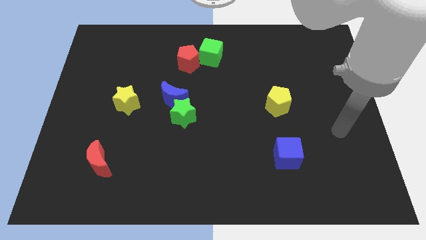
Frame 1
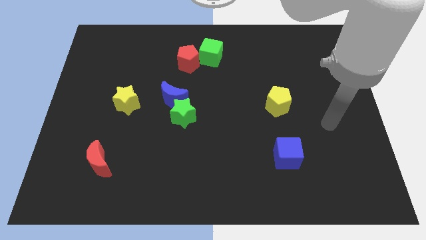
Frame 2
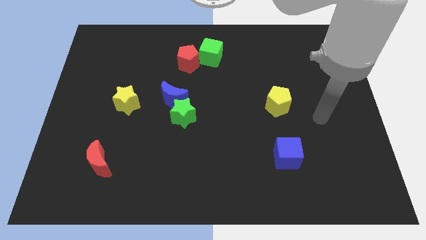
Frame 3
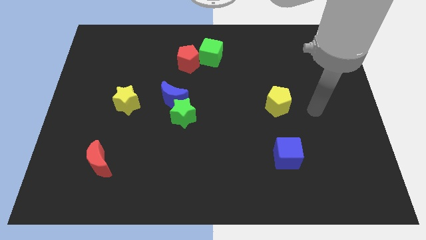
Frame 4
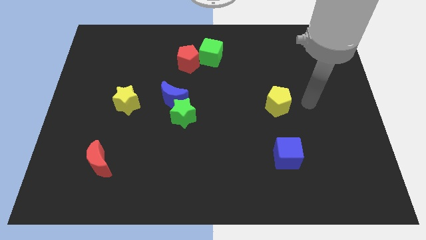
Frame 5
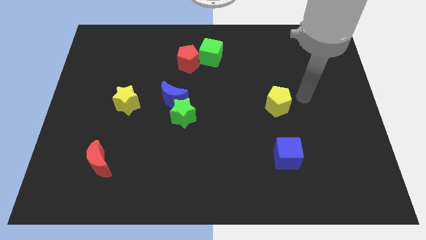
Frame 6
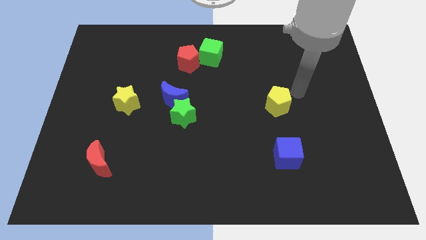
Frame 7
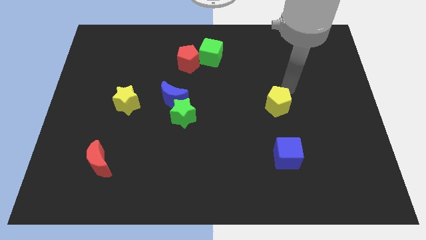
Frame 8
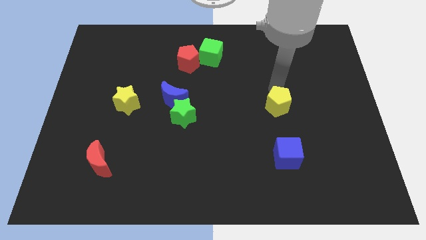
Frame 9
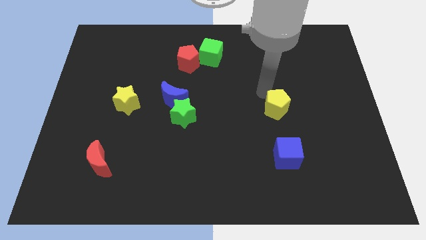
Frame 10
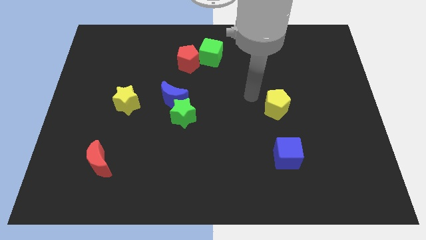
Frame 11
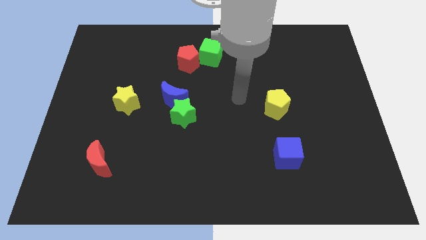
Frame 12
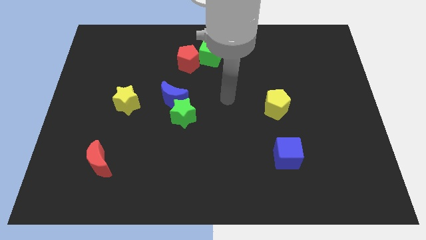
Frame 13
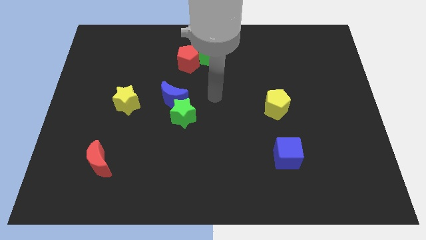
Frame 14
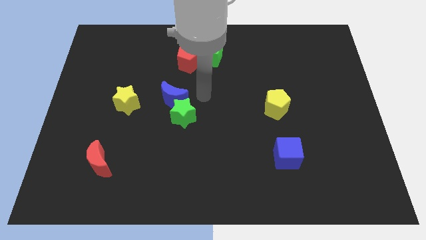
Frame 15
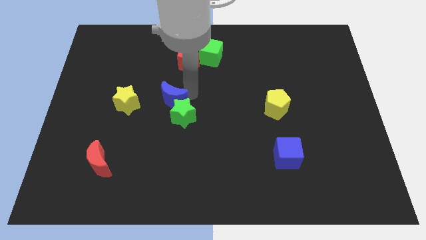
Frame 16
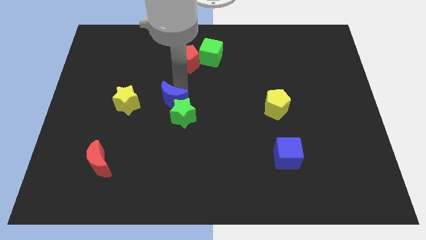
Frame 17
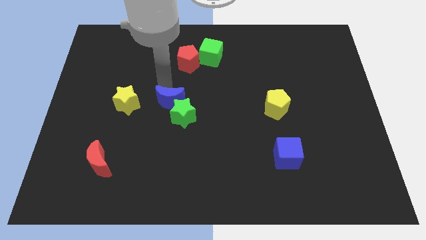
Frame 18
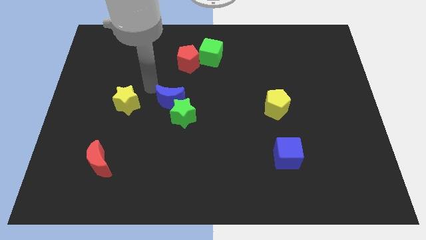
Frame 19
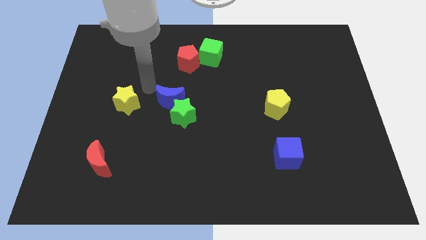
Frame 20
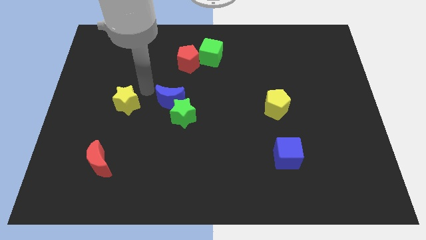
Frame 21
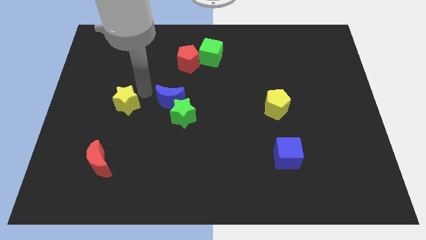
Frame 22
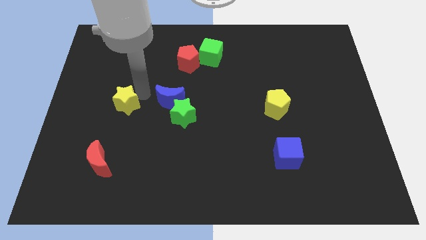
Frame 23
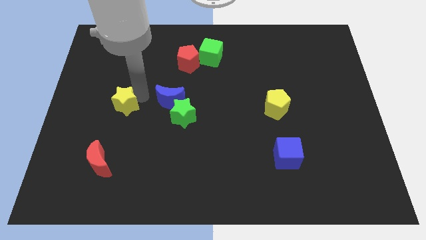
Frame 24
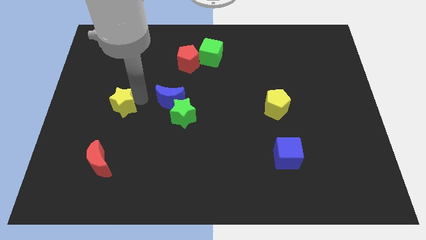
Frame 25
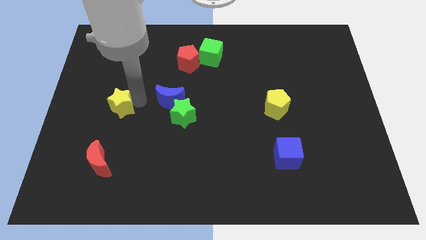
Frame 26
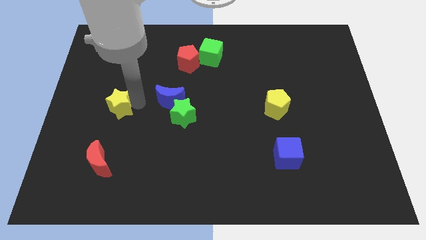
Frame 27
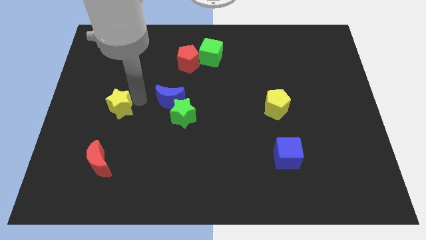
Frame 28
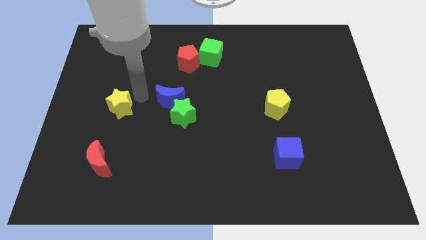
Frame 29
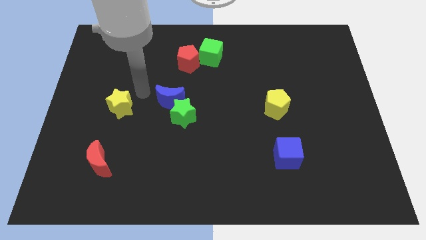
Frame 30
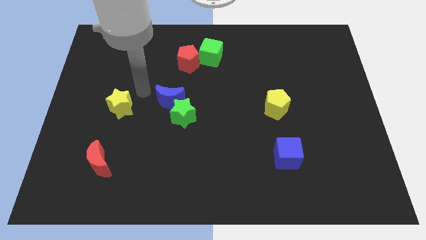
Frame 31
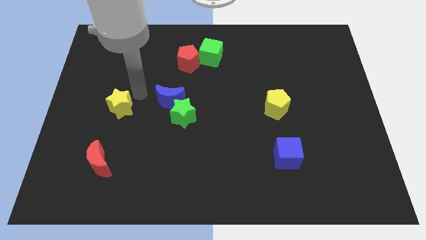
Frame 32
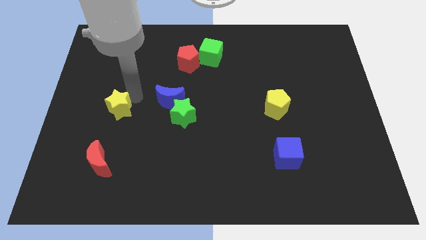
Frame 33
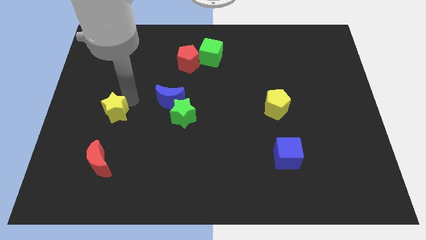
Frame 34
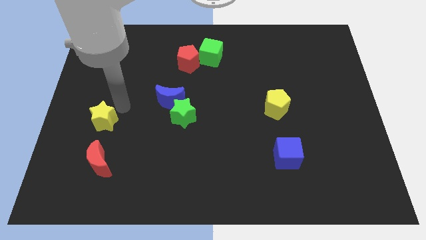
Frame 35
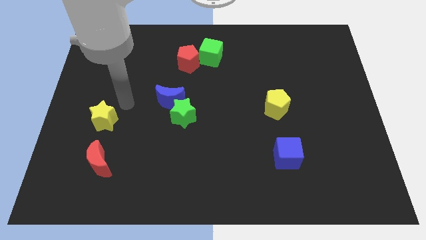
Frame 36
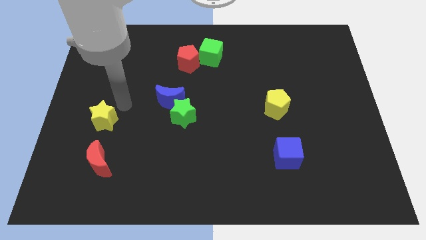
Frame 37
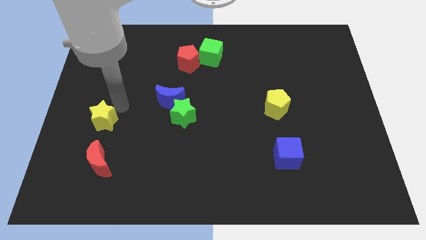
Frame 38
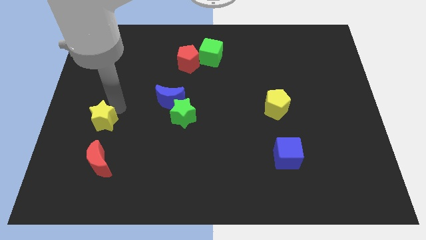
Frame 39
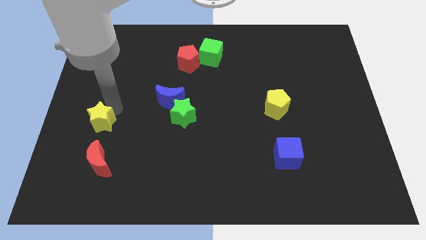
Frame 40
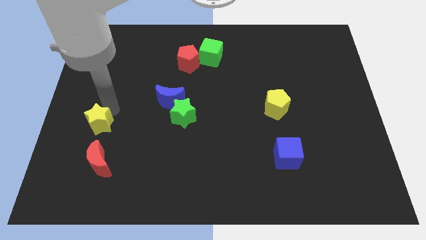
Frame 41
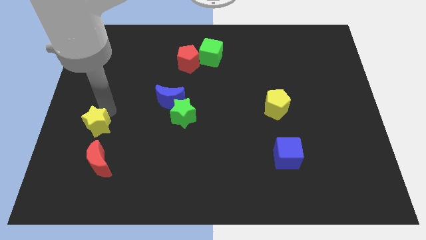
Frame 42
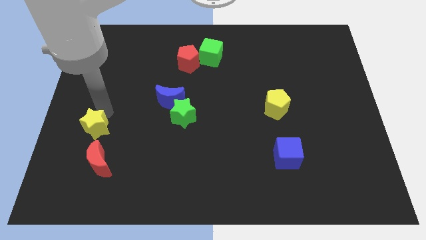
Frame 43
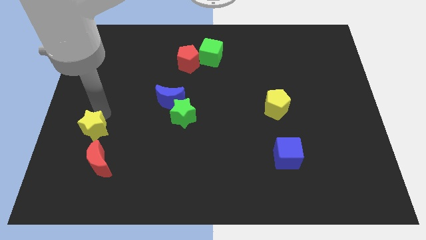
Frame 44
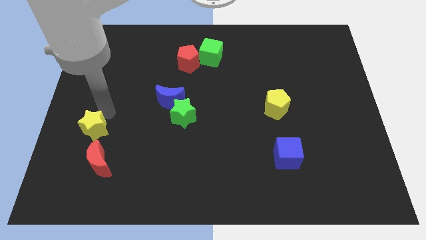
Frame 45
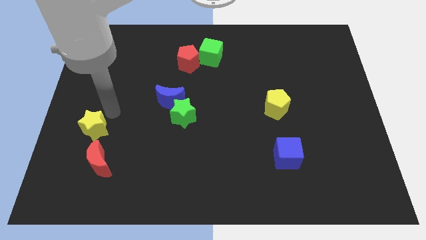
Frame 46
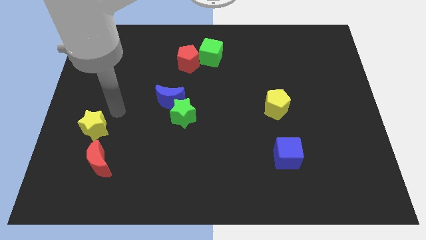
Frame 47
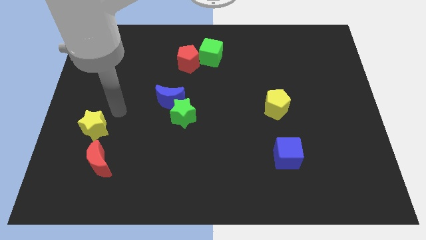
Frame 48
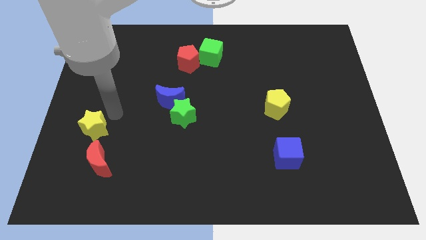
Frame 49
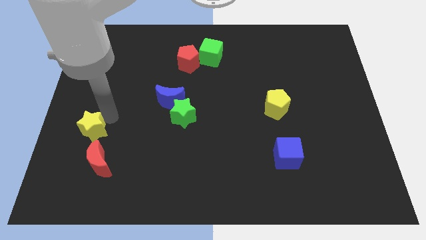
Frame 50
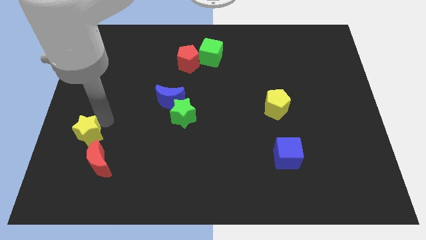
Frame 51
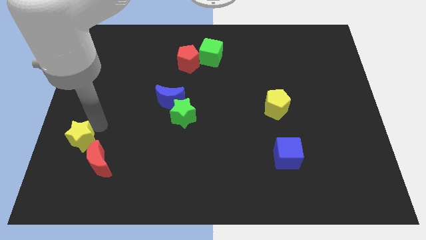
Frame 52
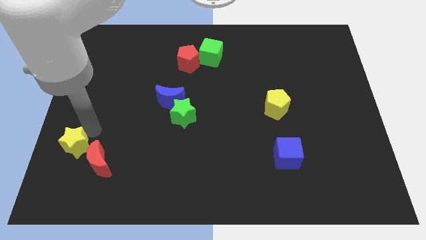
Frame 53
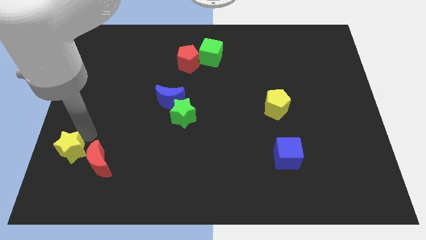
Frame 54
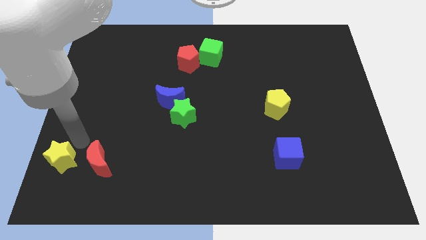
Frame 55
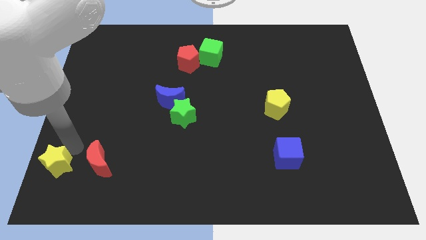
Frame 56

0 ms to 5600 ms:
push the yellow star to the lower left corner
